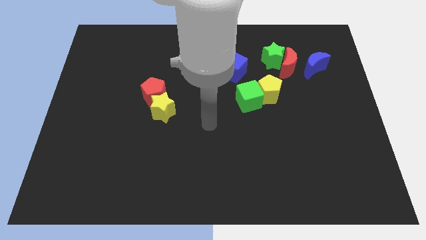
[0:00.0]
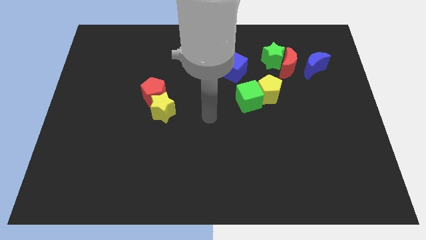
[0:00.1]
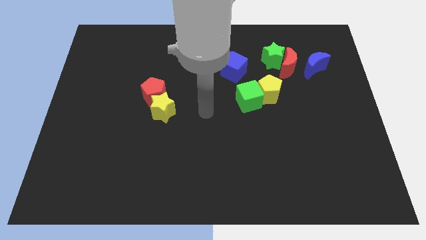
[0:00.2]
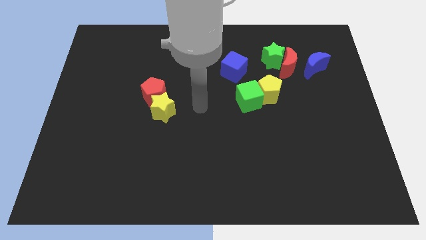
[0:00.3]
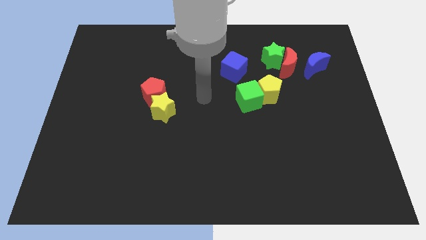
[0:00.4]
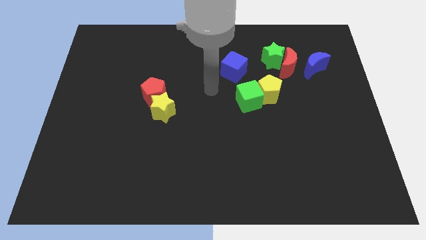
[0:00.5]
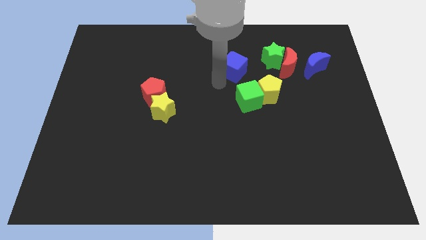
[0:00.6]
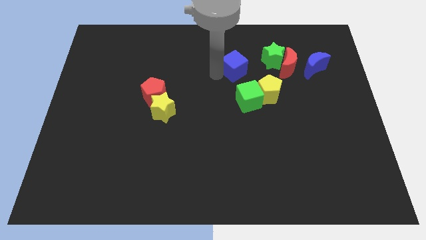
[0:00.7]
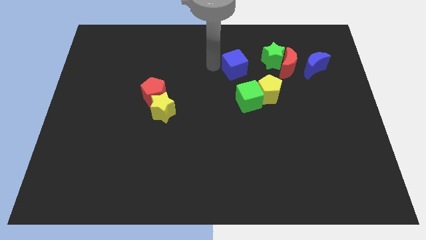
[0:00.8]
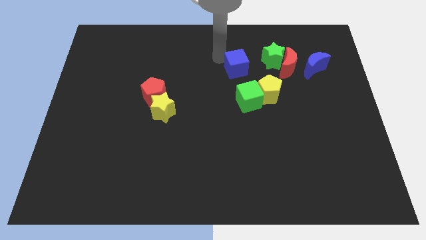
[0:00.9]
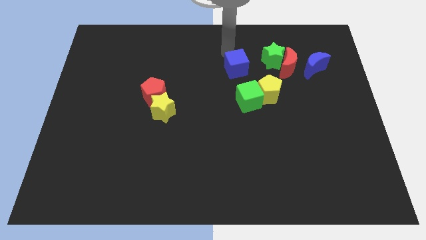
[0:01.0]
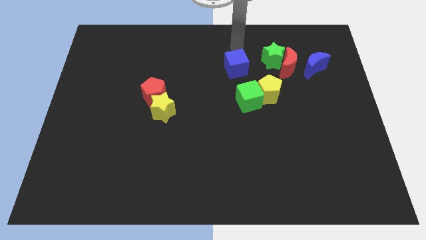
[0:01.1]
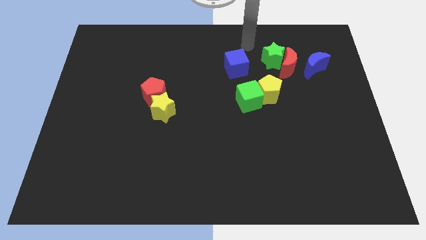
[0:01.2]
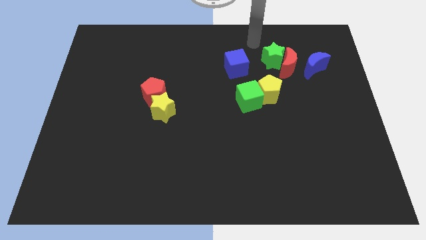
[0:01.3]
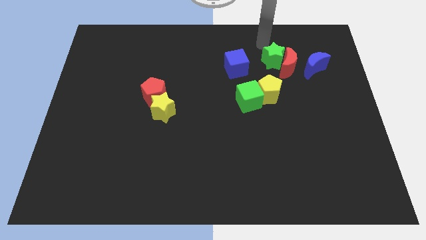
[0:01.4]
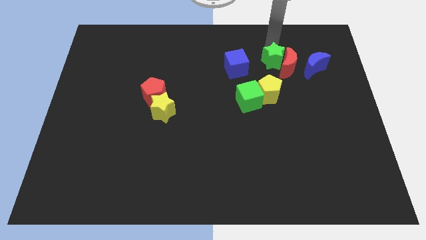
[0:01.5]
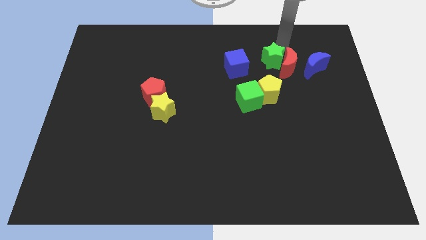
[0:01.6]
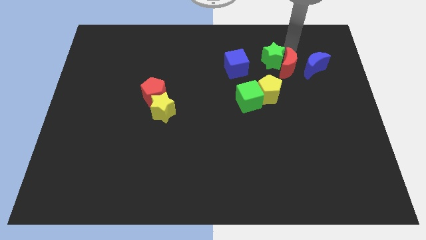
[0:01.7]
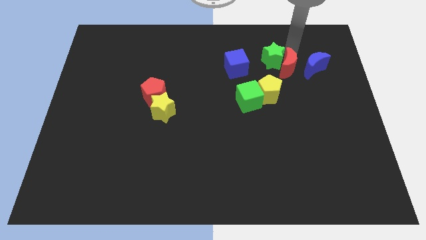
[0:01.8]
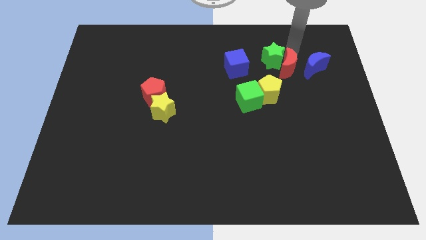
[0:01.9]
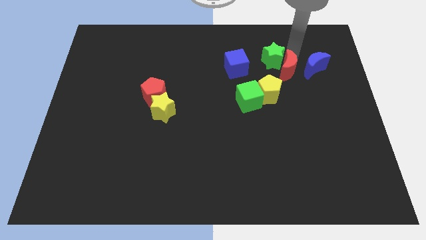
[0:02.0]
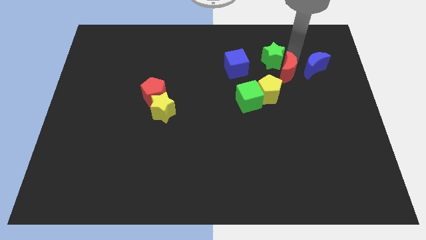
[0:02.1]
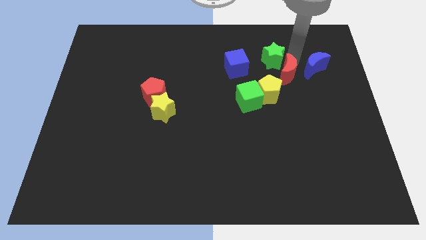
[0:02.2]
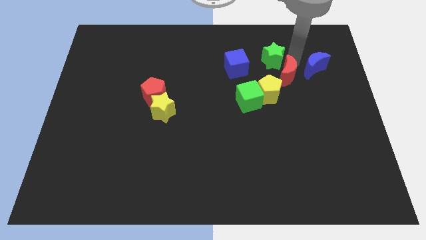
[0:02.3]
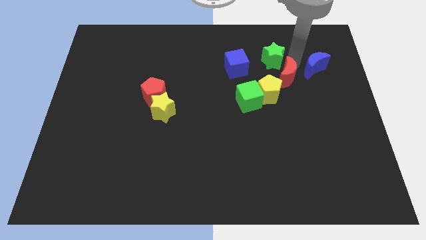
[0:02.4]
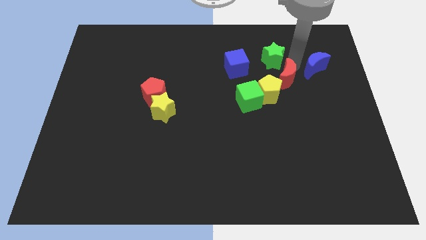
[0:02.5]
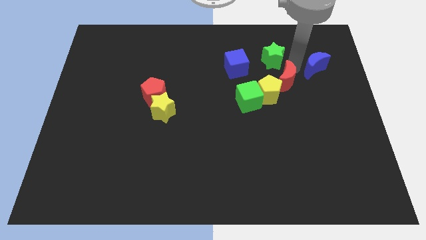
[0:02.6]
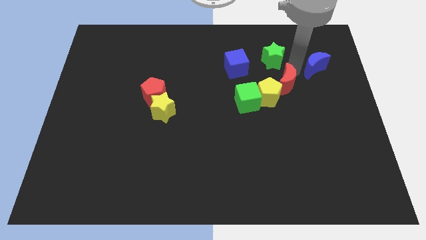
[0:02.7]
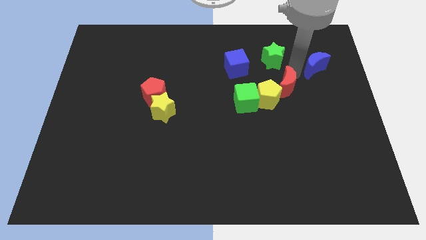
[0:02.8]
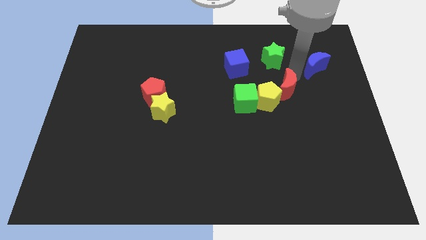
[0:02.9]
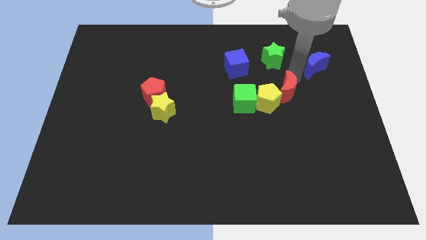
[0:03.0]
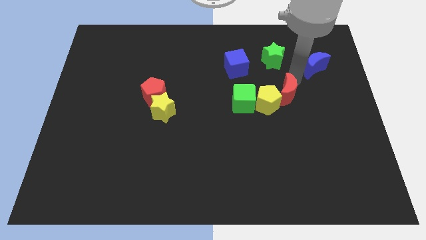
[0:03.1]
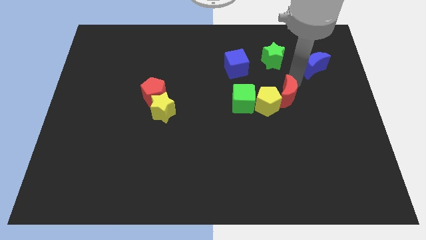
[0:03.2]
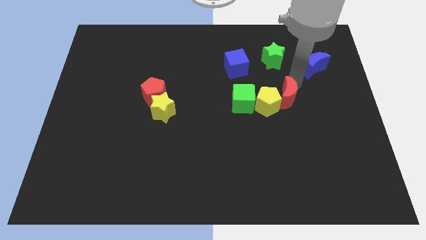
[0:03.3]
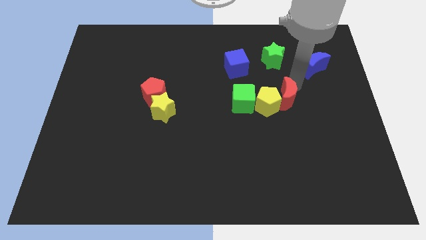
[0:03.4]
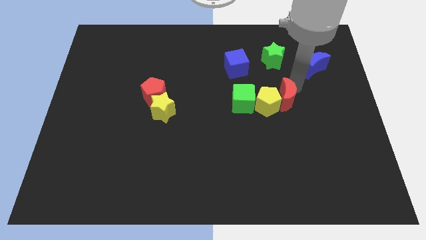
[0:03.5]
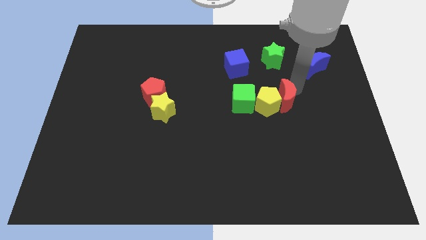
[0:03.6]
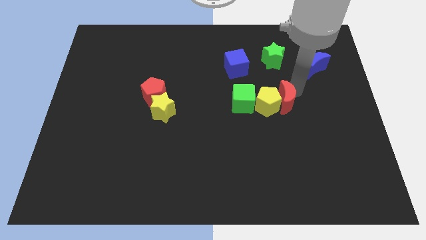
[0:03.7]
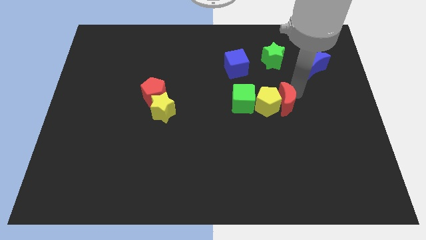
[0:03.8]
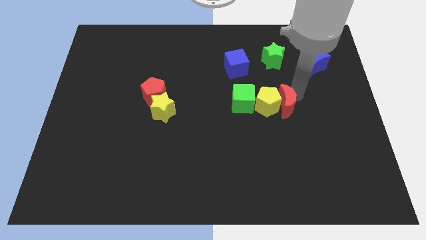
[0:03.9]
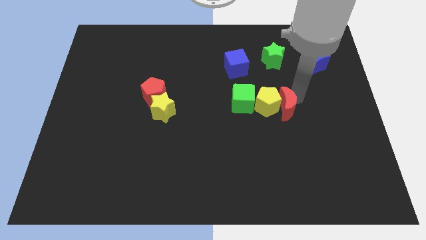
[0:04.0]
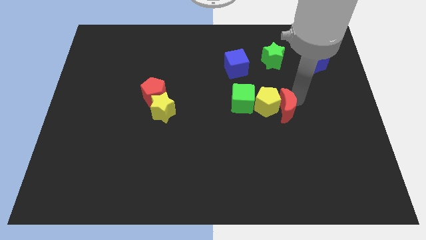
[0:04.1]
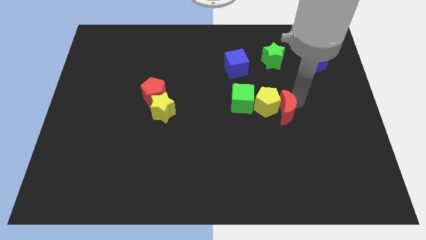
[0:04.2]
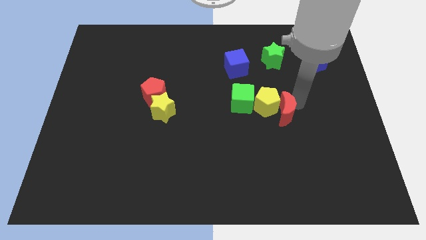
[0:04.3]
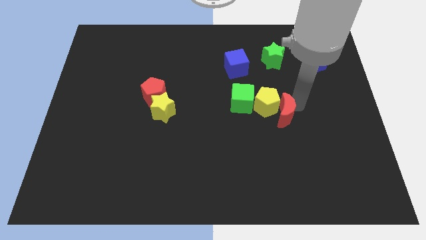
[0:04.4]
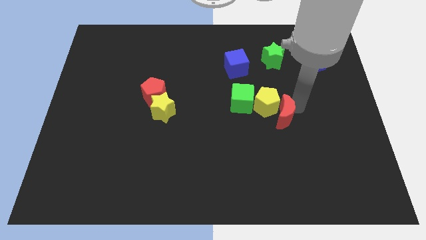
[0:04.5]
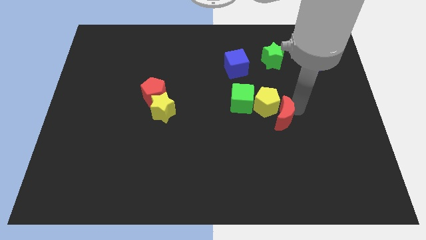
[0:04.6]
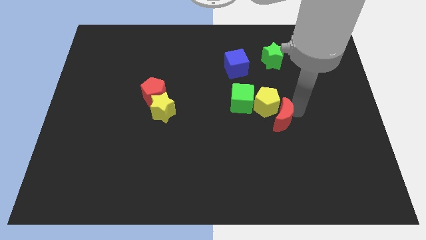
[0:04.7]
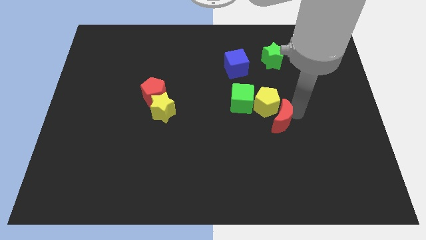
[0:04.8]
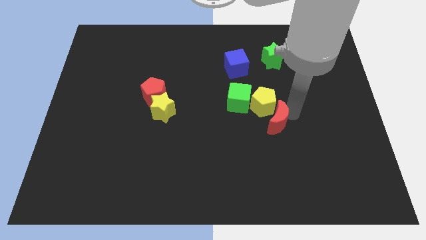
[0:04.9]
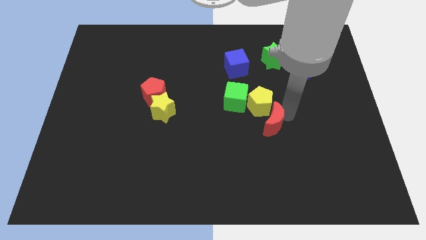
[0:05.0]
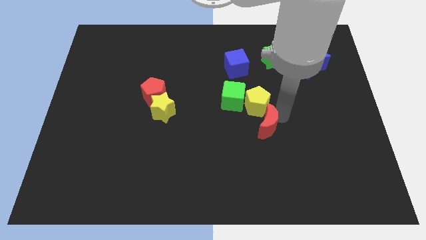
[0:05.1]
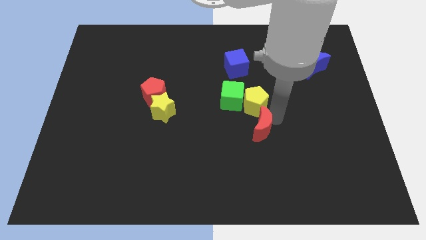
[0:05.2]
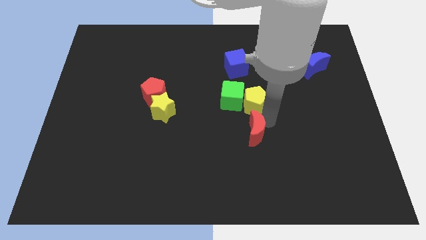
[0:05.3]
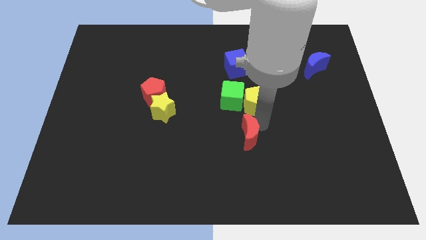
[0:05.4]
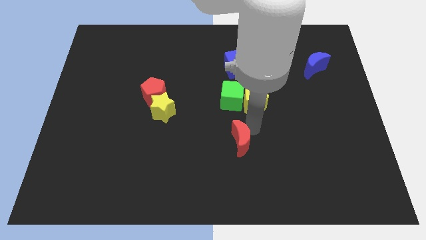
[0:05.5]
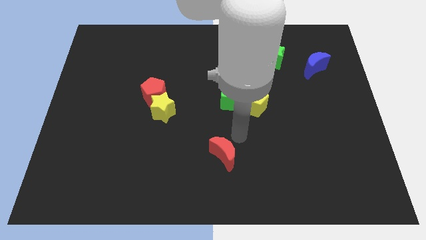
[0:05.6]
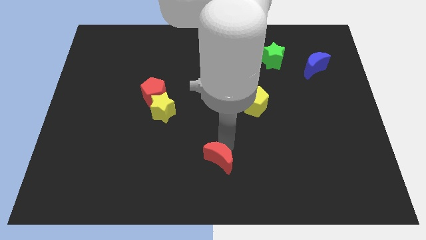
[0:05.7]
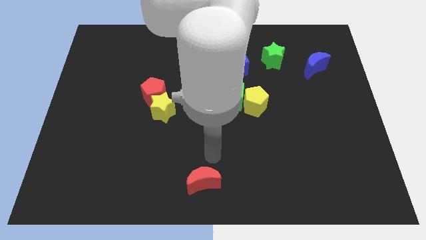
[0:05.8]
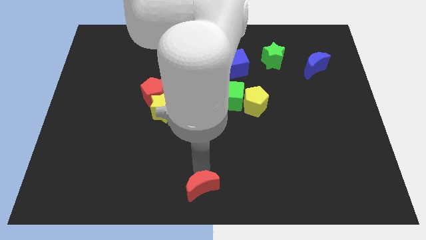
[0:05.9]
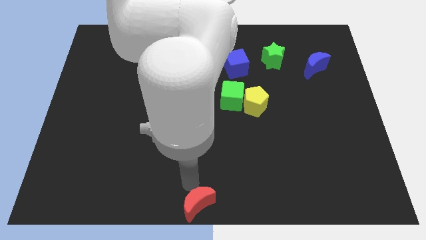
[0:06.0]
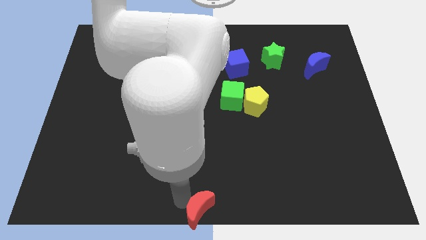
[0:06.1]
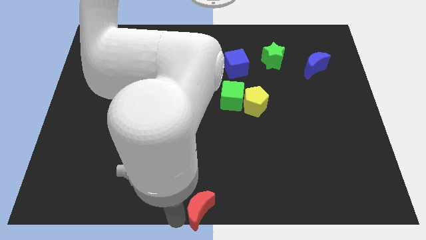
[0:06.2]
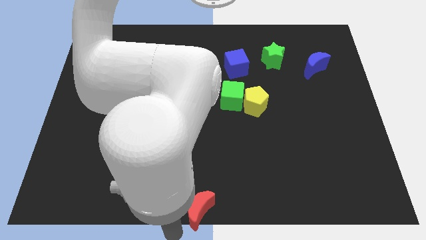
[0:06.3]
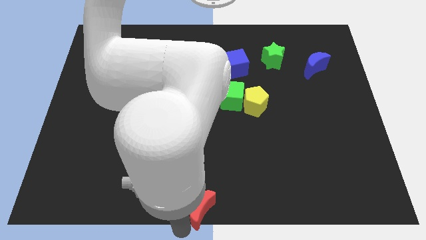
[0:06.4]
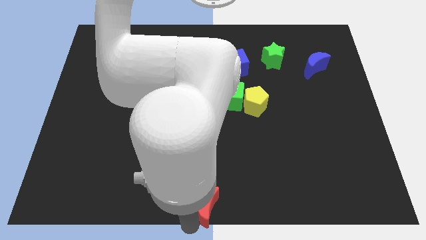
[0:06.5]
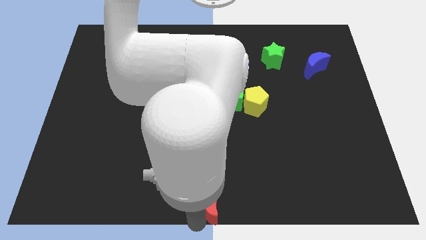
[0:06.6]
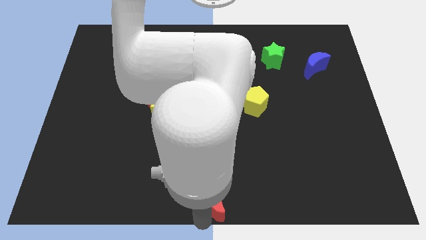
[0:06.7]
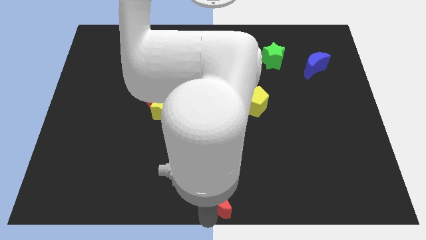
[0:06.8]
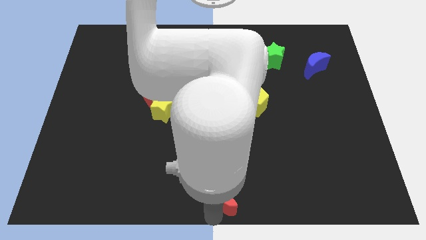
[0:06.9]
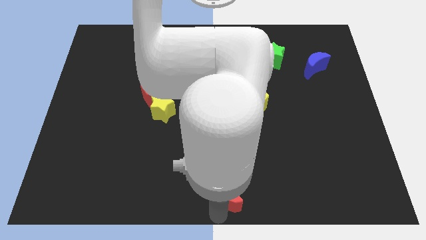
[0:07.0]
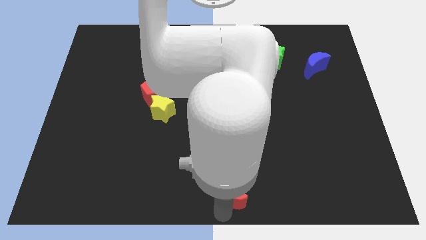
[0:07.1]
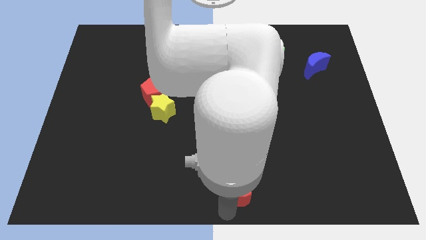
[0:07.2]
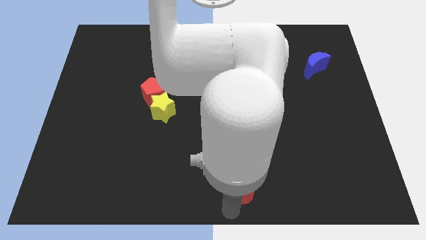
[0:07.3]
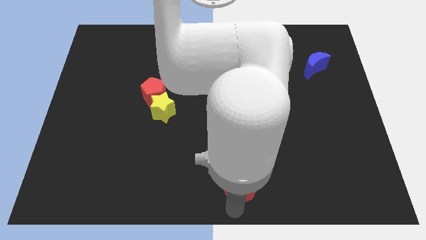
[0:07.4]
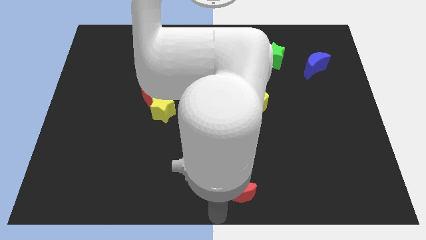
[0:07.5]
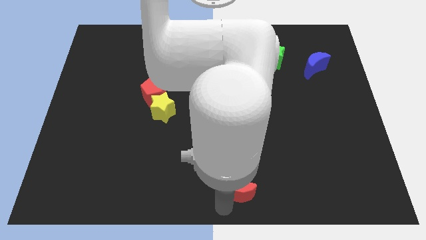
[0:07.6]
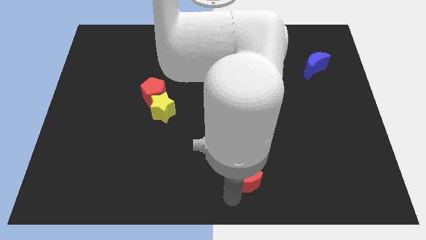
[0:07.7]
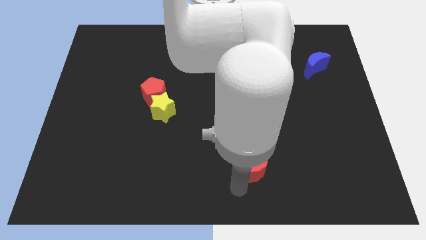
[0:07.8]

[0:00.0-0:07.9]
push the red moon downwards

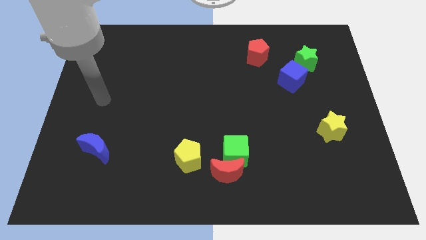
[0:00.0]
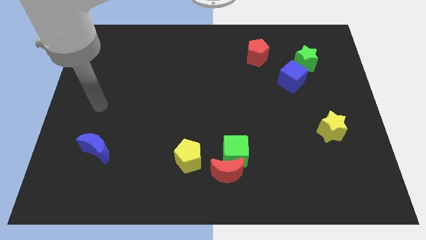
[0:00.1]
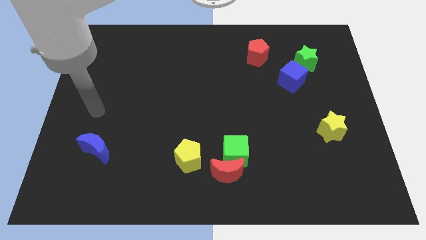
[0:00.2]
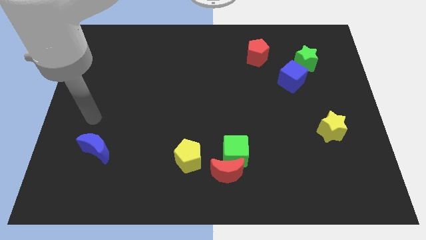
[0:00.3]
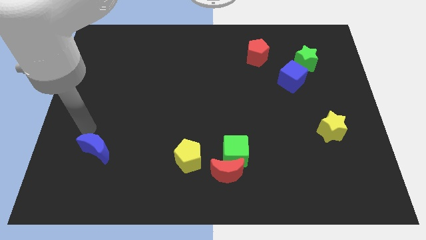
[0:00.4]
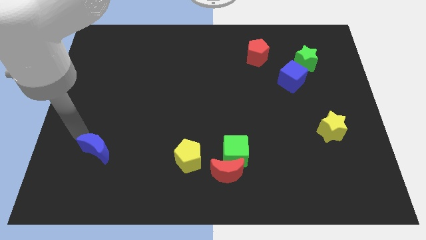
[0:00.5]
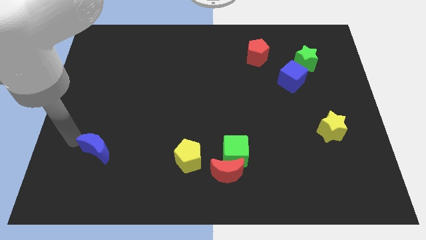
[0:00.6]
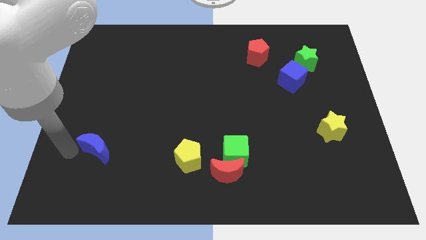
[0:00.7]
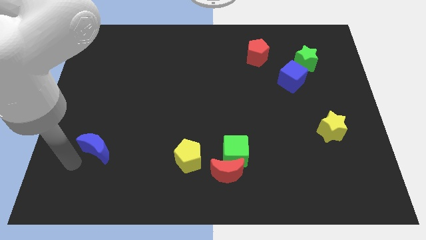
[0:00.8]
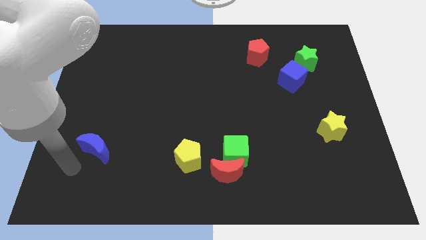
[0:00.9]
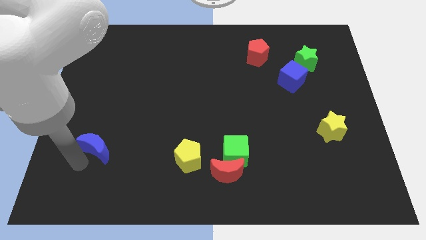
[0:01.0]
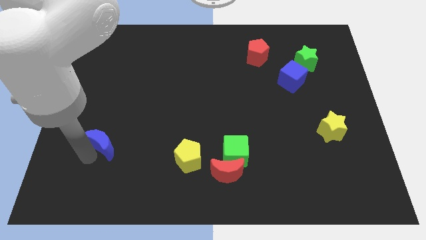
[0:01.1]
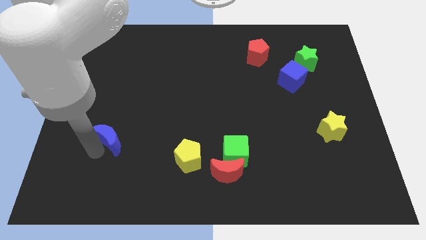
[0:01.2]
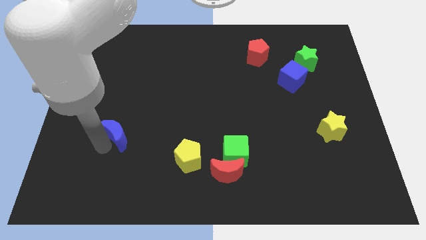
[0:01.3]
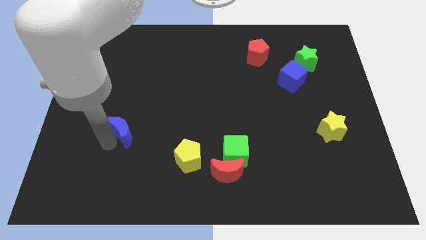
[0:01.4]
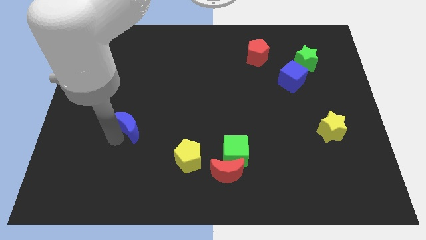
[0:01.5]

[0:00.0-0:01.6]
move the blue moon slightly up and to the right diagonally
